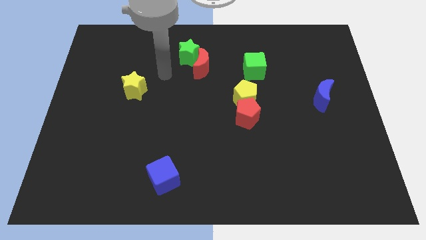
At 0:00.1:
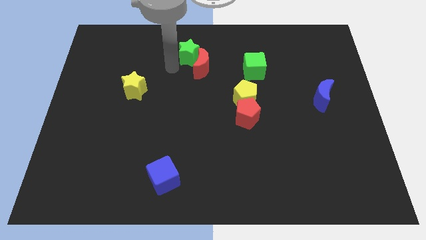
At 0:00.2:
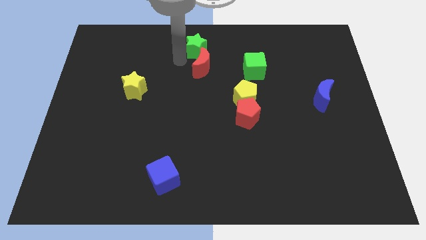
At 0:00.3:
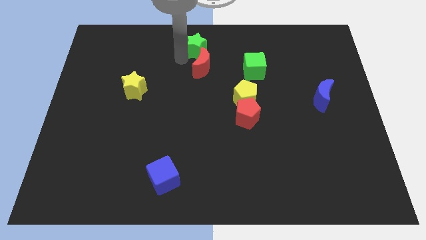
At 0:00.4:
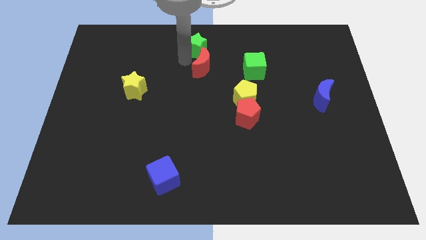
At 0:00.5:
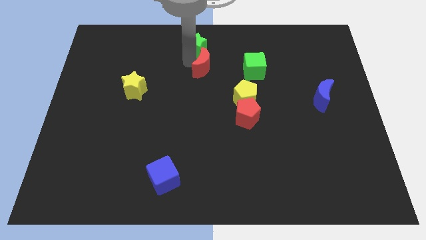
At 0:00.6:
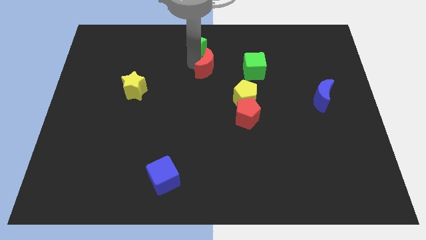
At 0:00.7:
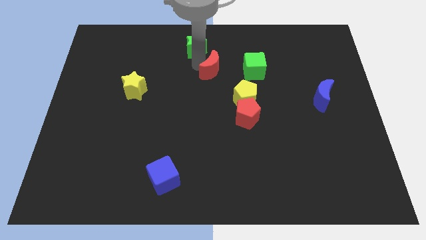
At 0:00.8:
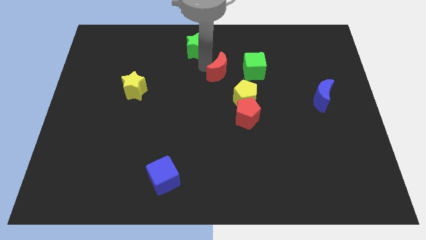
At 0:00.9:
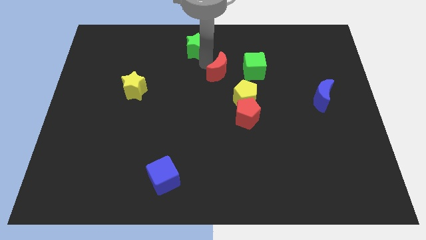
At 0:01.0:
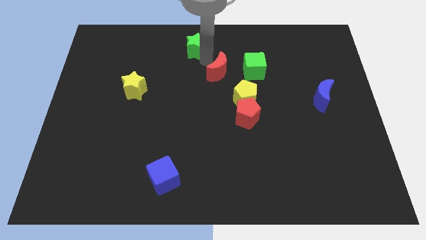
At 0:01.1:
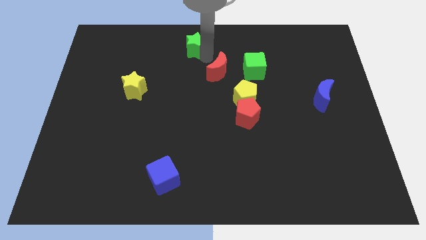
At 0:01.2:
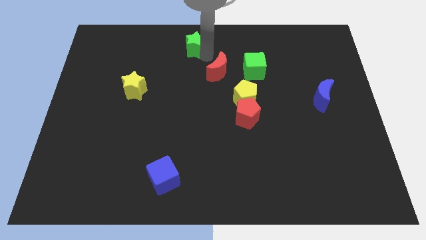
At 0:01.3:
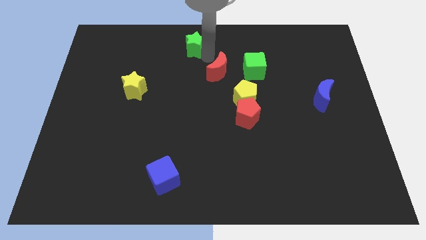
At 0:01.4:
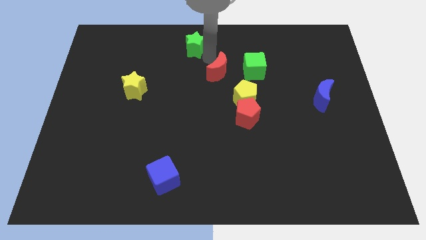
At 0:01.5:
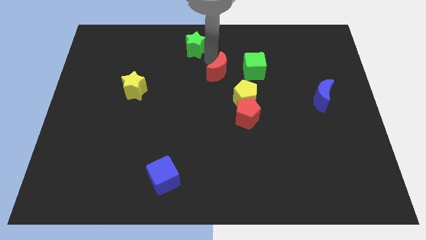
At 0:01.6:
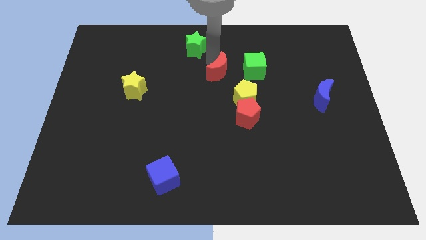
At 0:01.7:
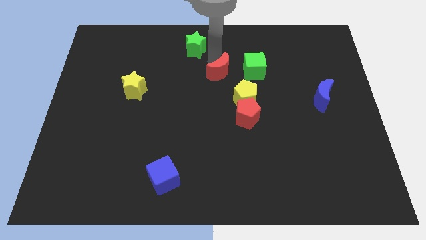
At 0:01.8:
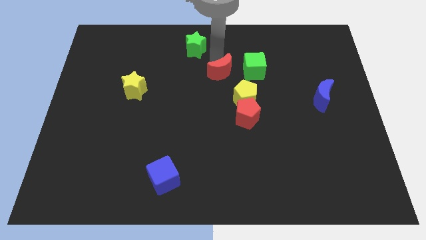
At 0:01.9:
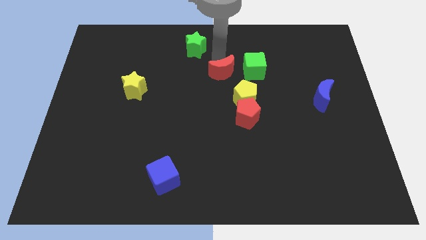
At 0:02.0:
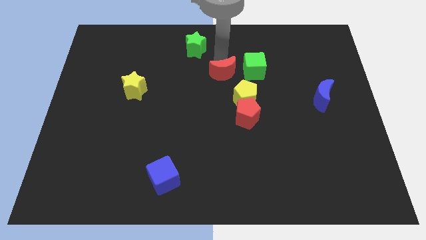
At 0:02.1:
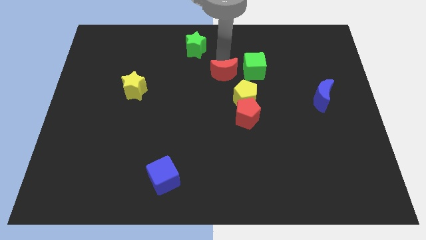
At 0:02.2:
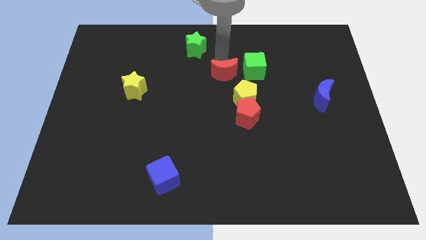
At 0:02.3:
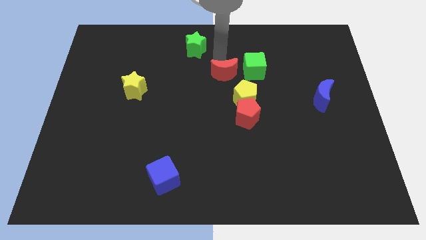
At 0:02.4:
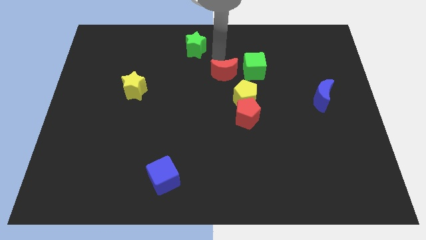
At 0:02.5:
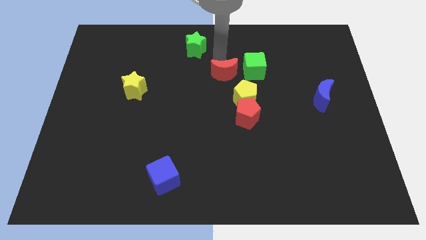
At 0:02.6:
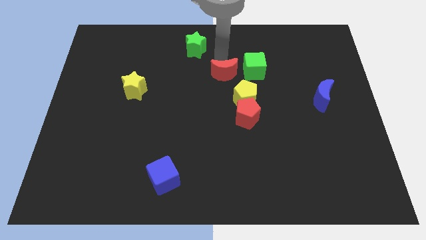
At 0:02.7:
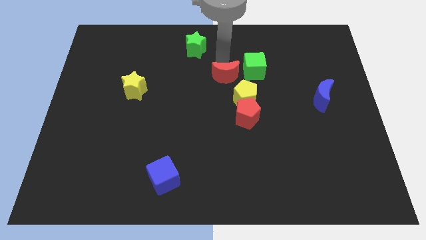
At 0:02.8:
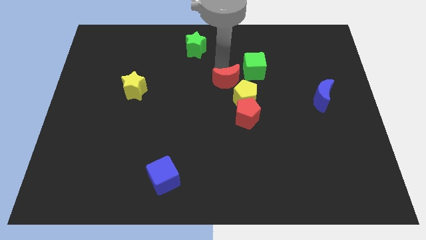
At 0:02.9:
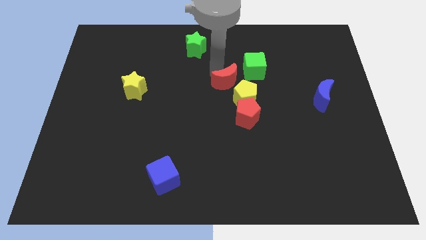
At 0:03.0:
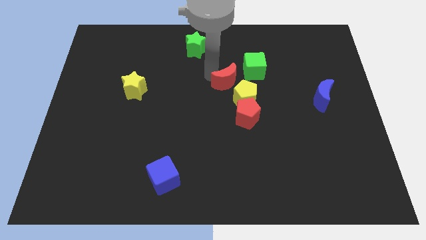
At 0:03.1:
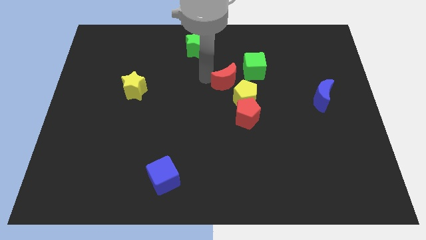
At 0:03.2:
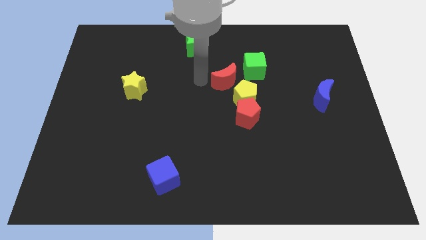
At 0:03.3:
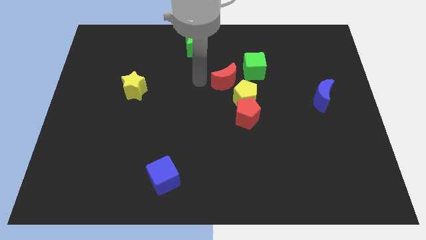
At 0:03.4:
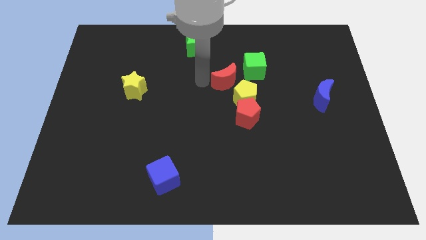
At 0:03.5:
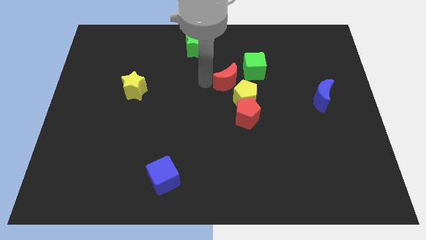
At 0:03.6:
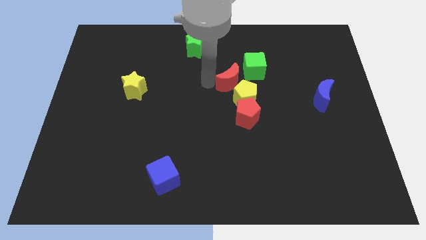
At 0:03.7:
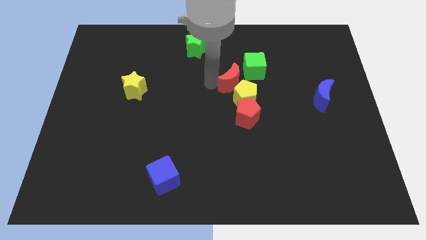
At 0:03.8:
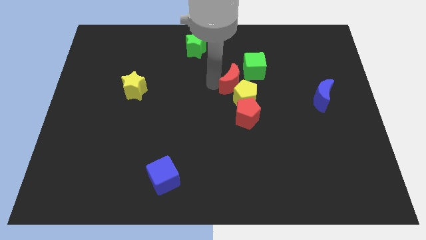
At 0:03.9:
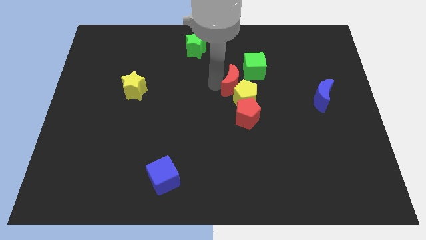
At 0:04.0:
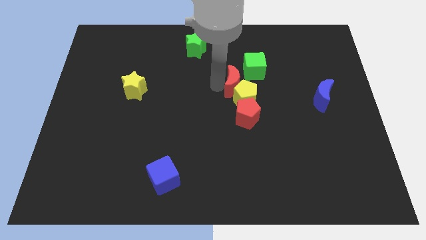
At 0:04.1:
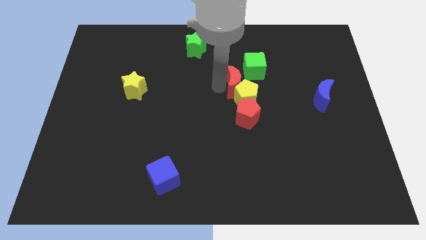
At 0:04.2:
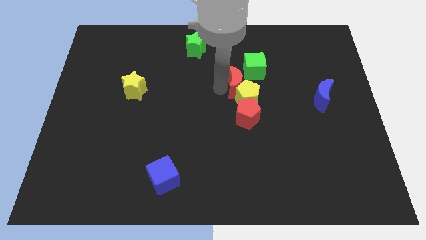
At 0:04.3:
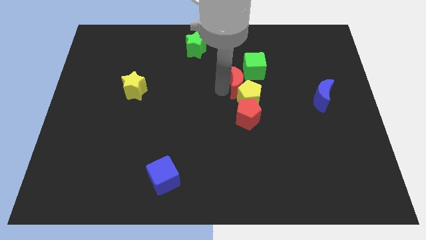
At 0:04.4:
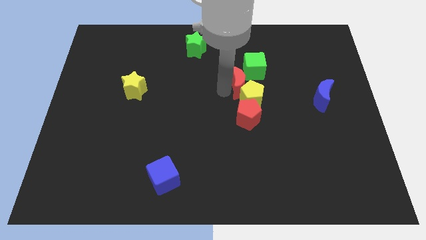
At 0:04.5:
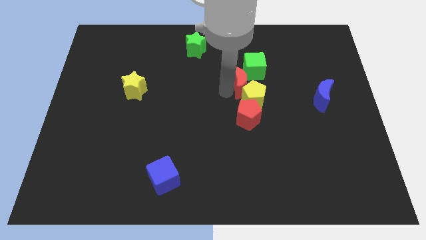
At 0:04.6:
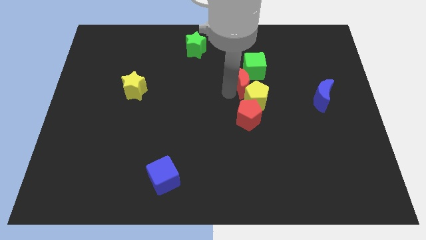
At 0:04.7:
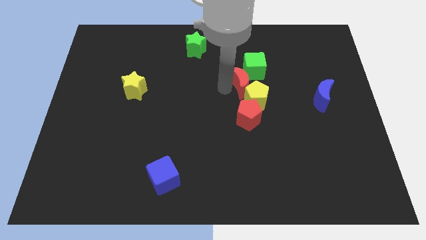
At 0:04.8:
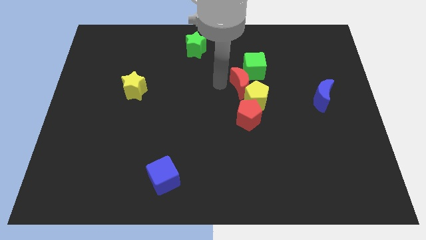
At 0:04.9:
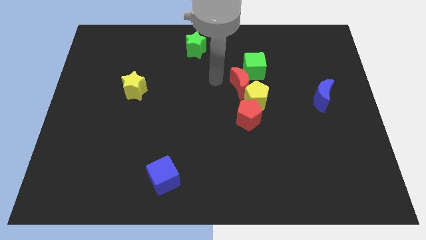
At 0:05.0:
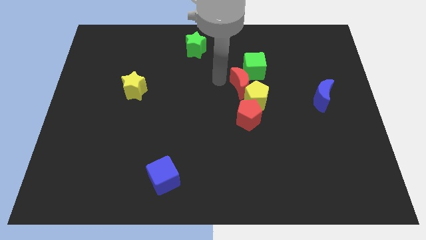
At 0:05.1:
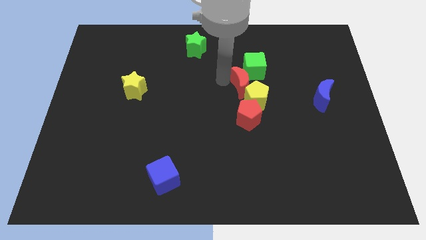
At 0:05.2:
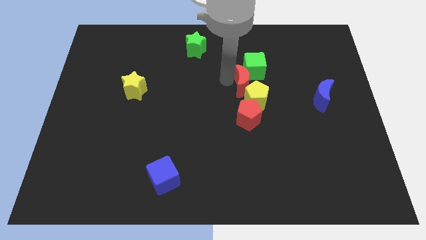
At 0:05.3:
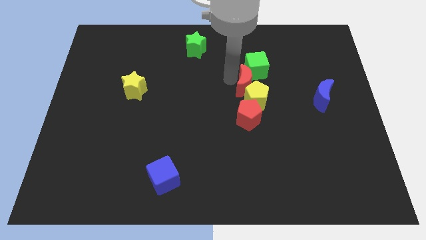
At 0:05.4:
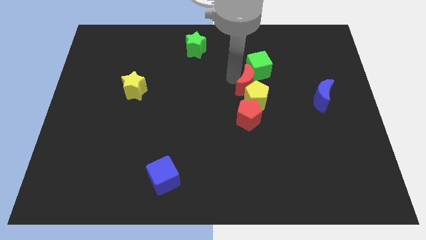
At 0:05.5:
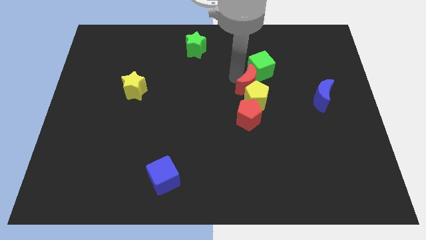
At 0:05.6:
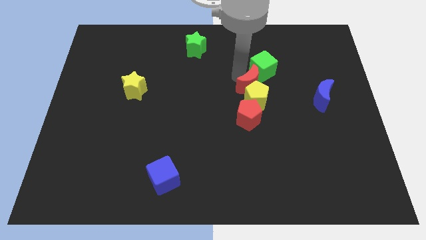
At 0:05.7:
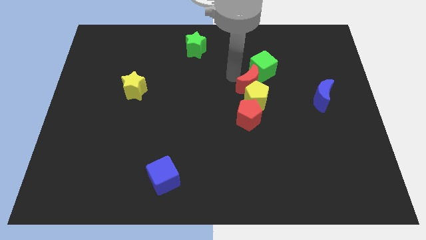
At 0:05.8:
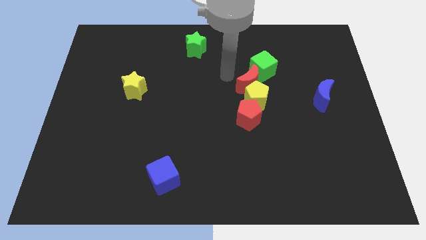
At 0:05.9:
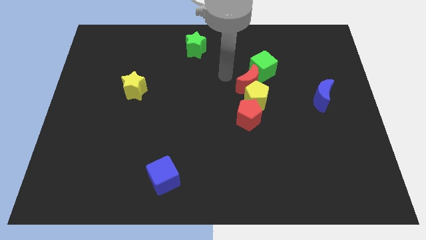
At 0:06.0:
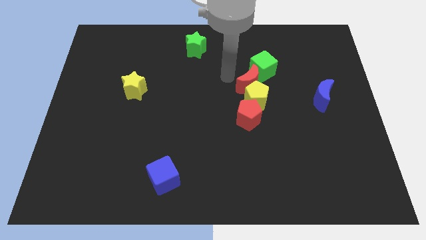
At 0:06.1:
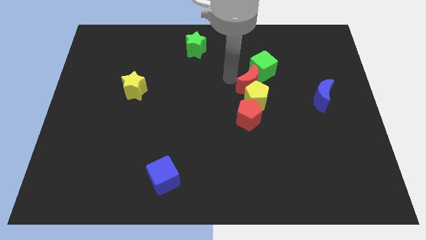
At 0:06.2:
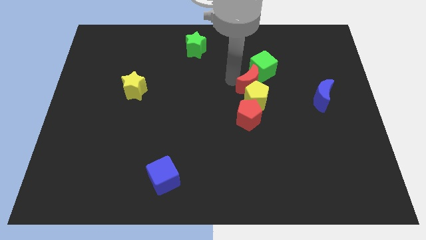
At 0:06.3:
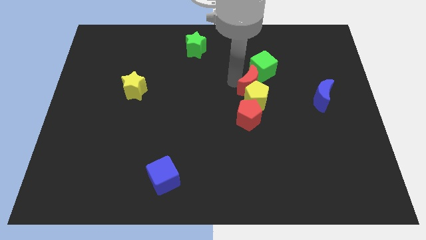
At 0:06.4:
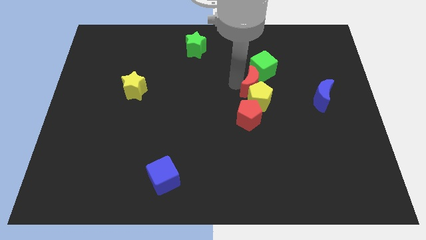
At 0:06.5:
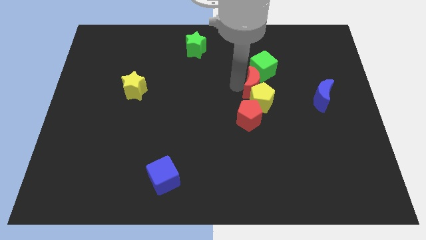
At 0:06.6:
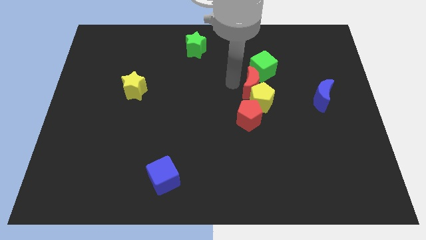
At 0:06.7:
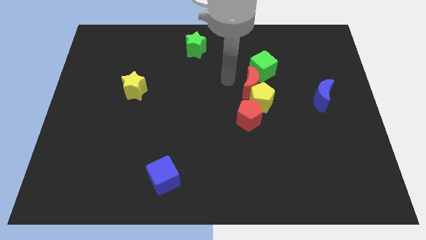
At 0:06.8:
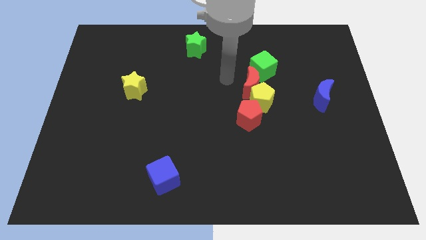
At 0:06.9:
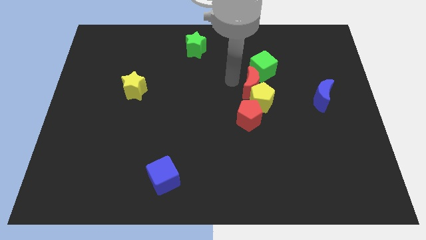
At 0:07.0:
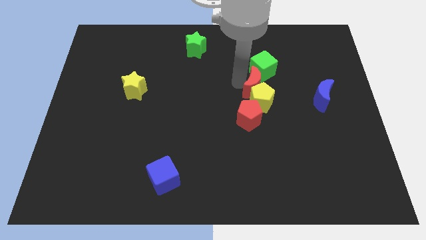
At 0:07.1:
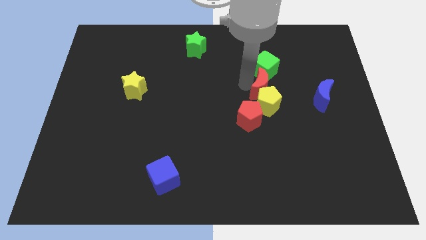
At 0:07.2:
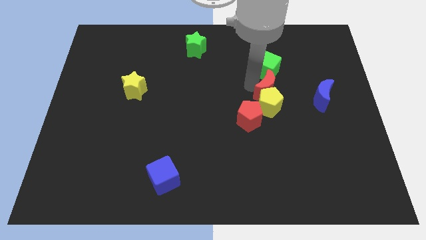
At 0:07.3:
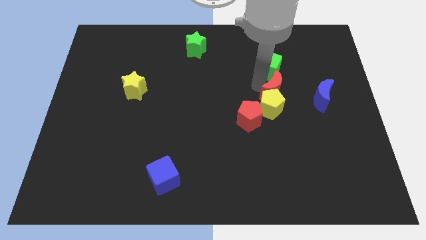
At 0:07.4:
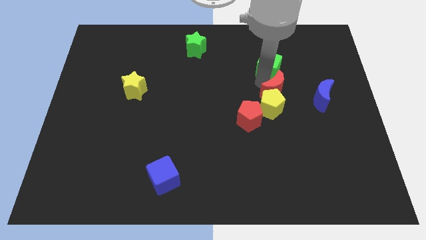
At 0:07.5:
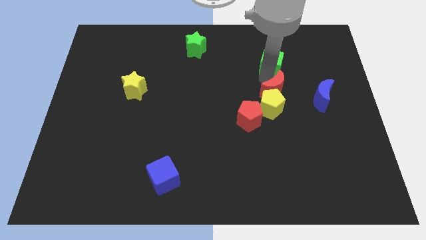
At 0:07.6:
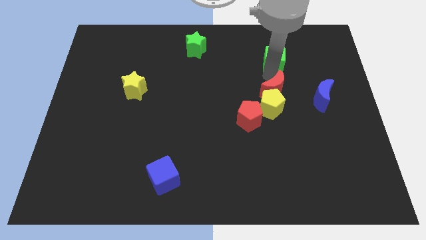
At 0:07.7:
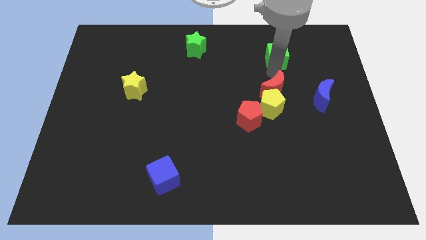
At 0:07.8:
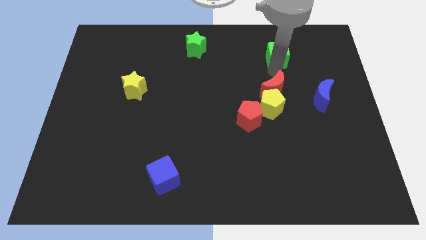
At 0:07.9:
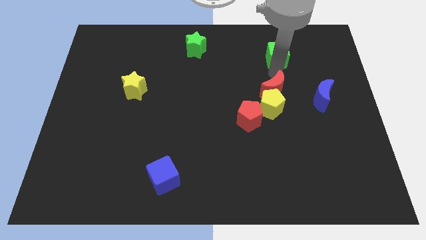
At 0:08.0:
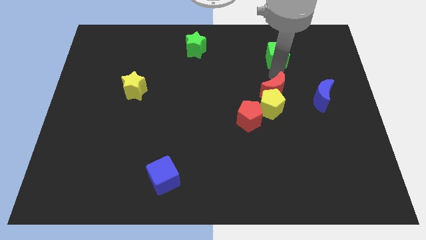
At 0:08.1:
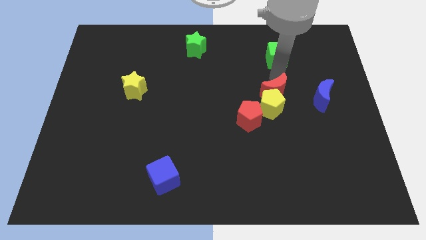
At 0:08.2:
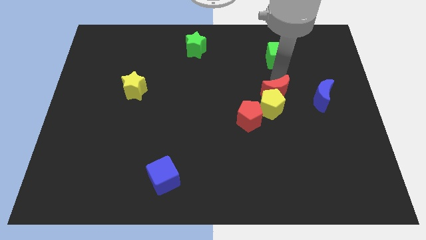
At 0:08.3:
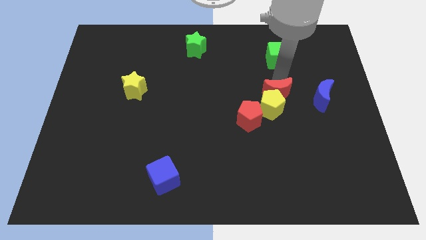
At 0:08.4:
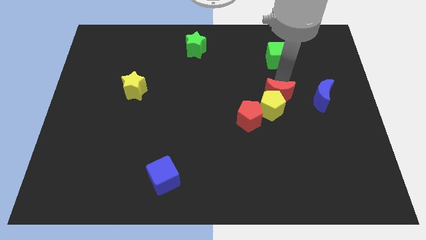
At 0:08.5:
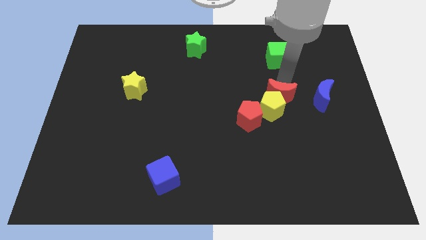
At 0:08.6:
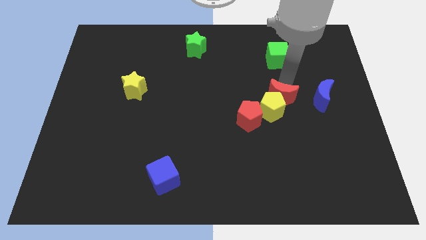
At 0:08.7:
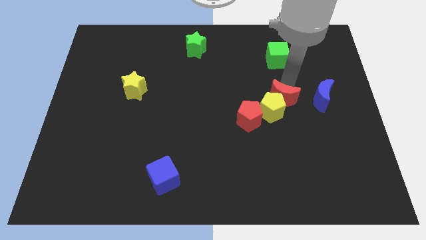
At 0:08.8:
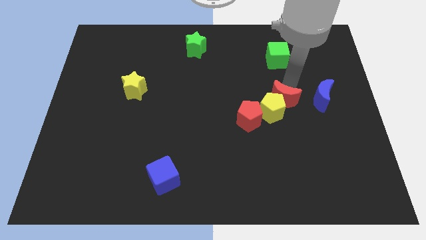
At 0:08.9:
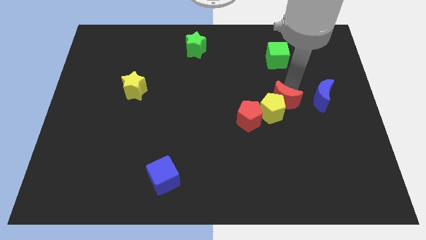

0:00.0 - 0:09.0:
slide the red moon diagonally down and right
